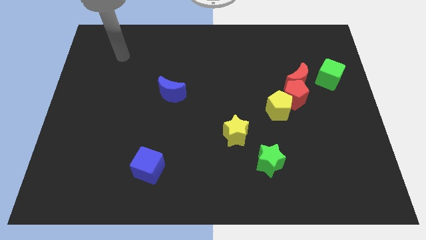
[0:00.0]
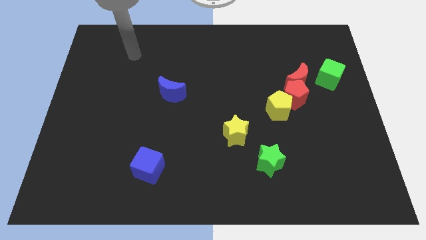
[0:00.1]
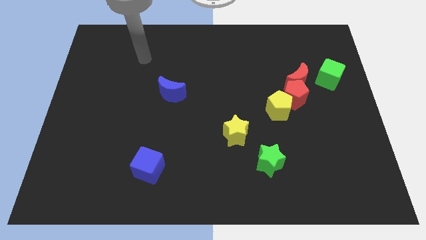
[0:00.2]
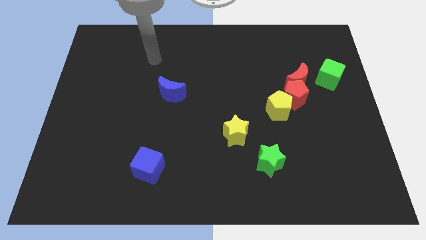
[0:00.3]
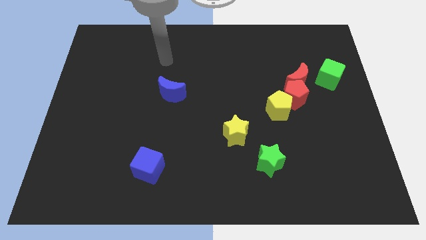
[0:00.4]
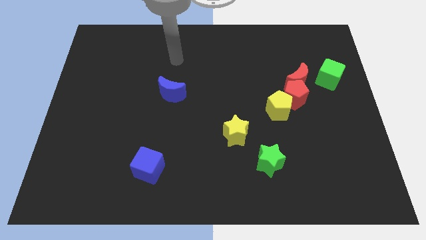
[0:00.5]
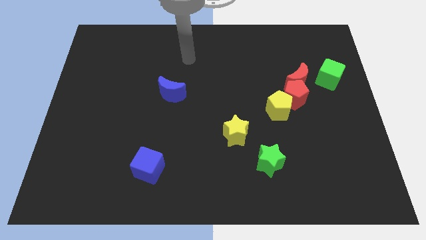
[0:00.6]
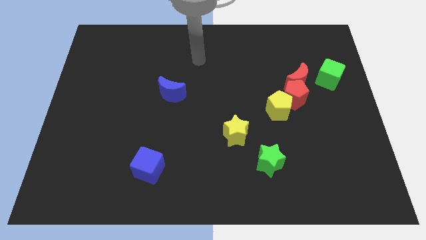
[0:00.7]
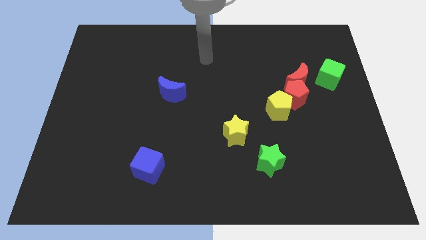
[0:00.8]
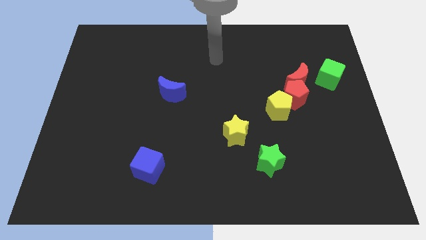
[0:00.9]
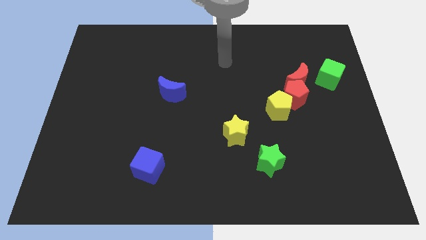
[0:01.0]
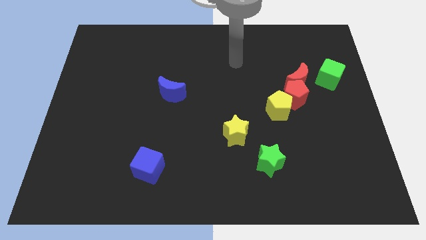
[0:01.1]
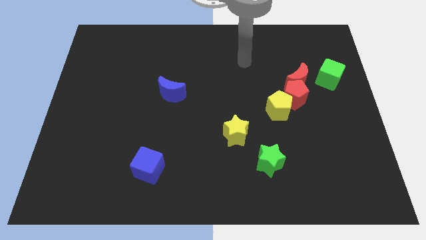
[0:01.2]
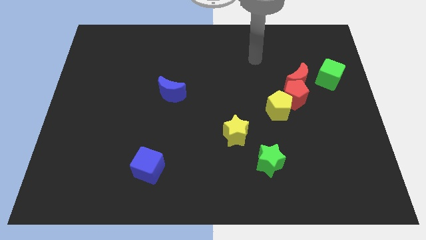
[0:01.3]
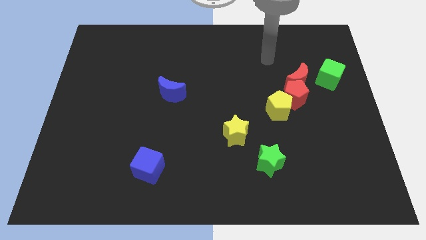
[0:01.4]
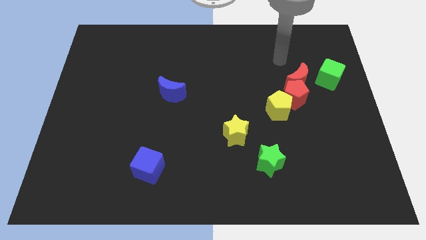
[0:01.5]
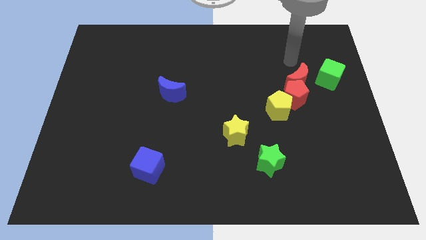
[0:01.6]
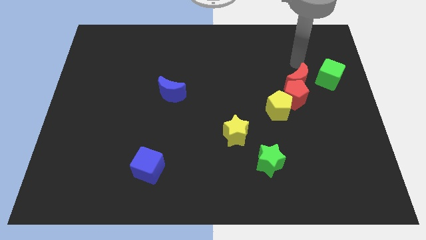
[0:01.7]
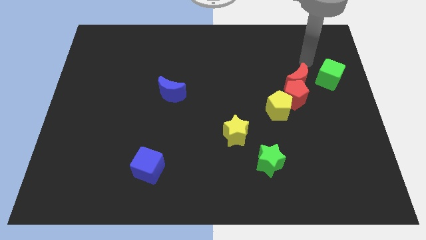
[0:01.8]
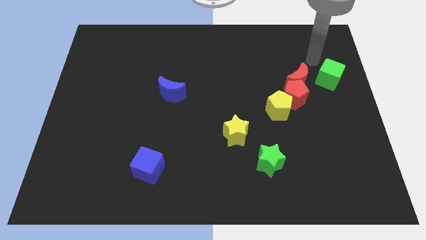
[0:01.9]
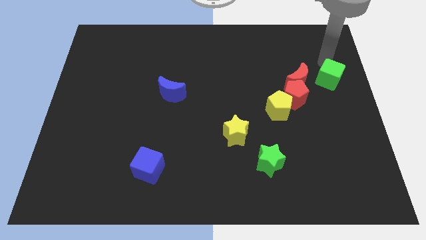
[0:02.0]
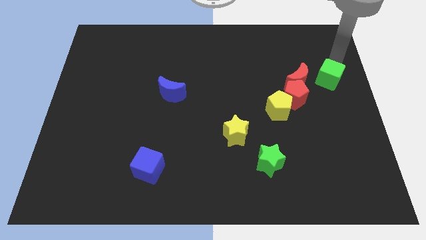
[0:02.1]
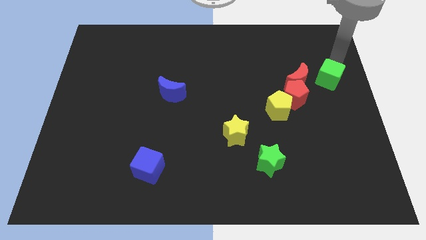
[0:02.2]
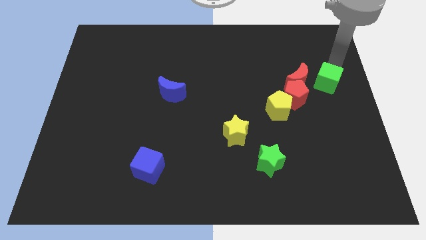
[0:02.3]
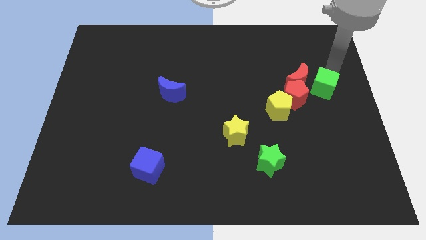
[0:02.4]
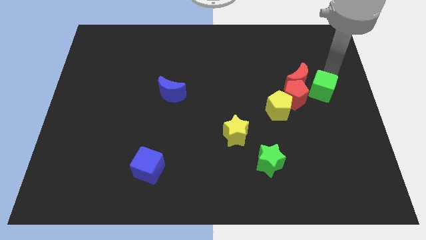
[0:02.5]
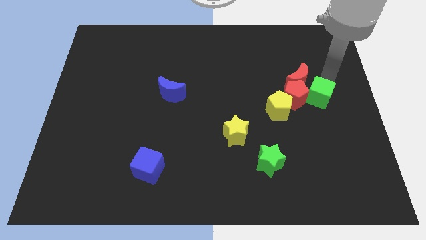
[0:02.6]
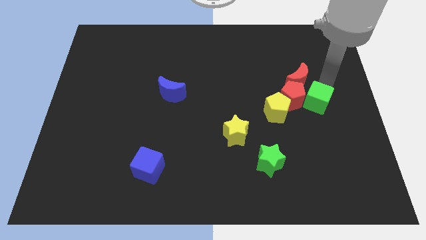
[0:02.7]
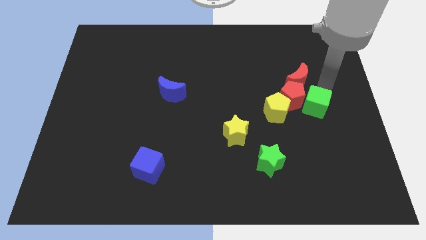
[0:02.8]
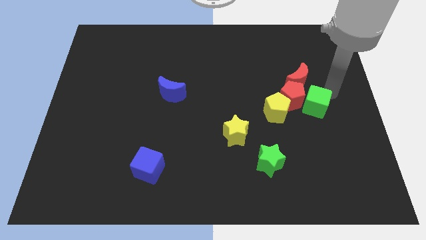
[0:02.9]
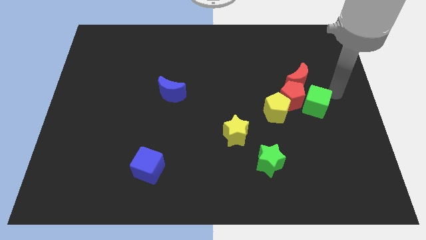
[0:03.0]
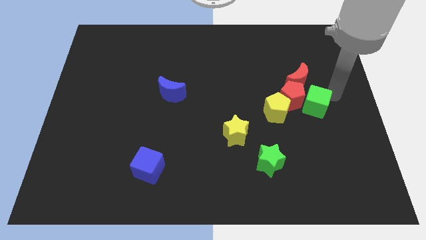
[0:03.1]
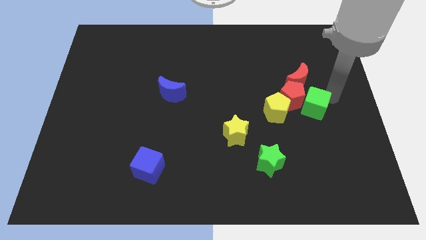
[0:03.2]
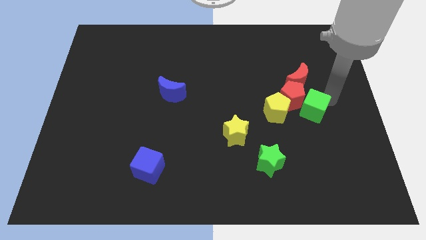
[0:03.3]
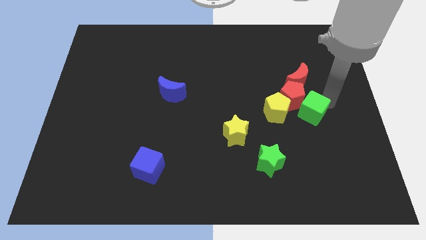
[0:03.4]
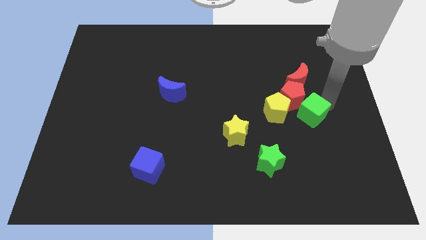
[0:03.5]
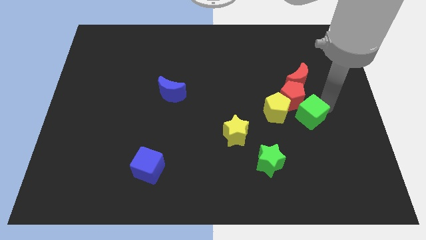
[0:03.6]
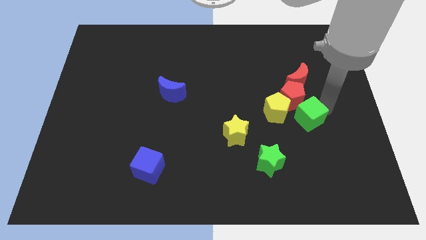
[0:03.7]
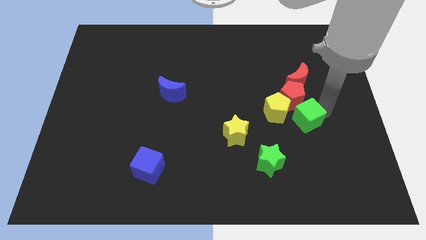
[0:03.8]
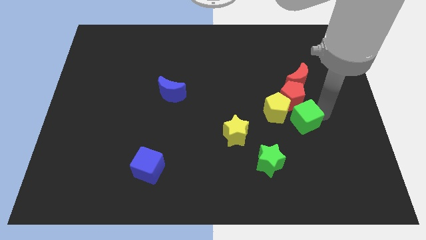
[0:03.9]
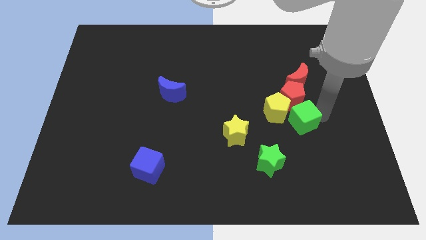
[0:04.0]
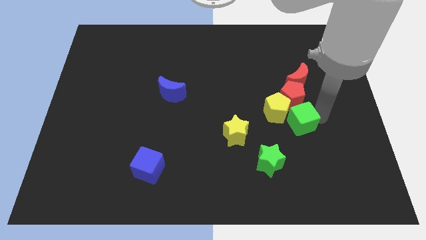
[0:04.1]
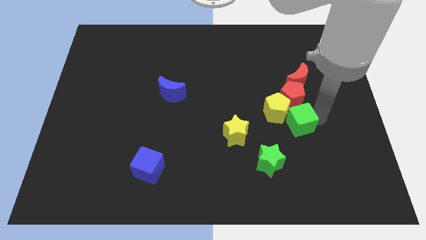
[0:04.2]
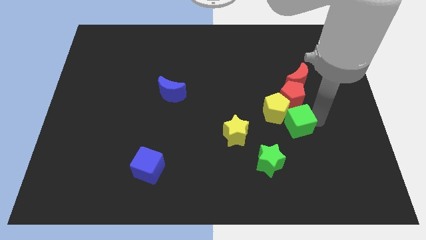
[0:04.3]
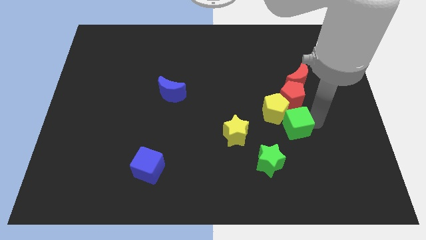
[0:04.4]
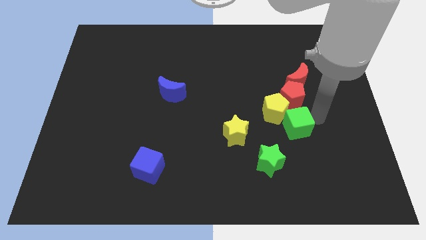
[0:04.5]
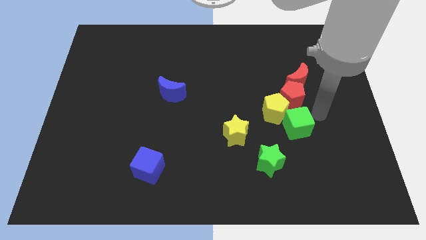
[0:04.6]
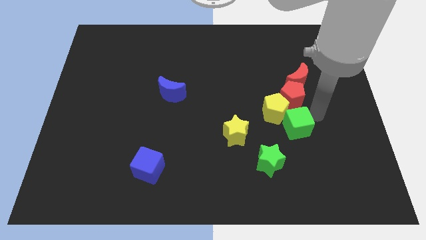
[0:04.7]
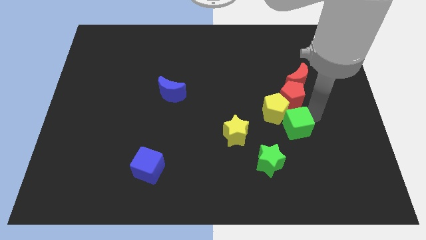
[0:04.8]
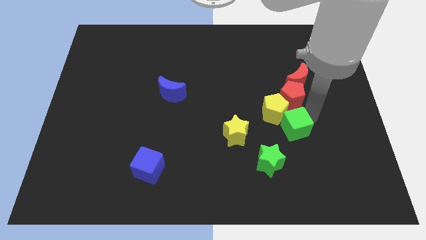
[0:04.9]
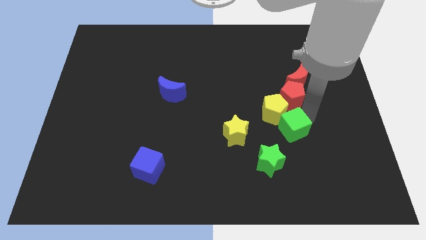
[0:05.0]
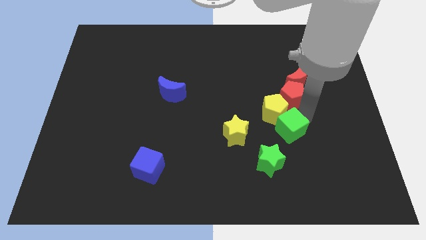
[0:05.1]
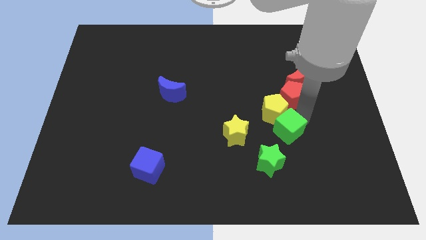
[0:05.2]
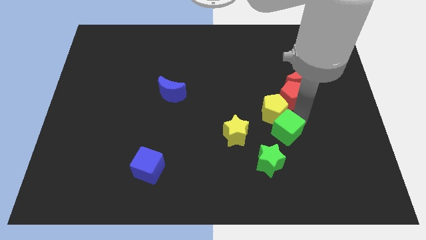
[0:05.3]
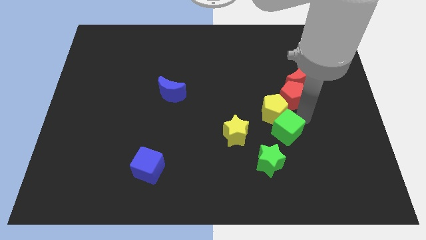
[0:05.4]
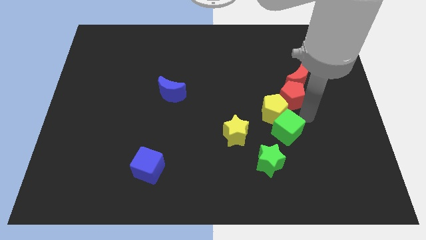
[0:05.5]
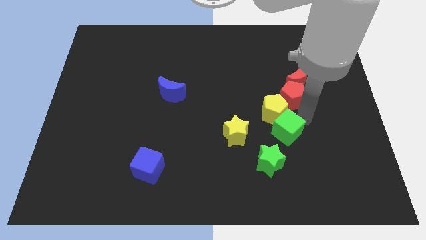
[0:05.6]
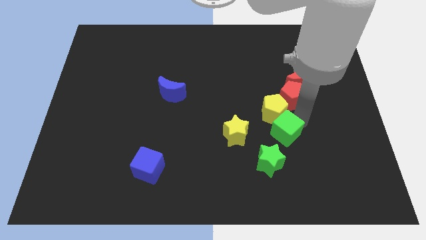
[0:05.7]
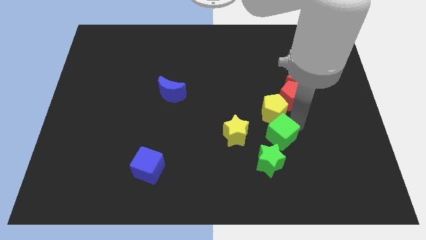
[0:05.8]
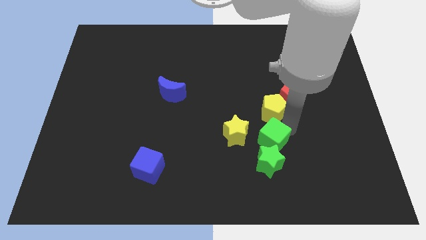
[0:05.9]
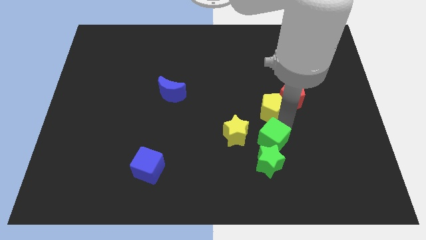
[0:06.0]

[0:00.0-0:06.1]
push the green cube next to the green star

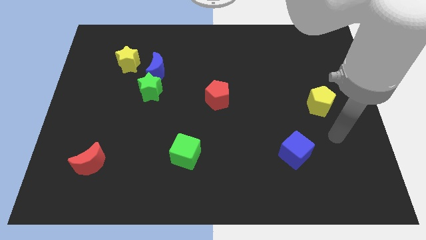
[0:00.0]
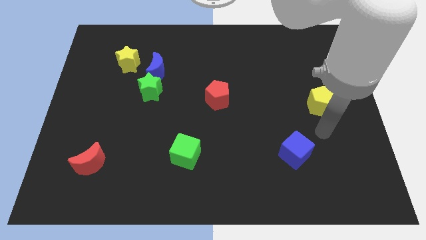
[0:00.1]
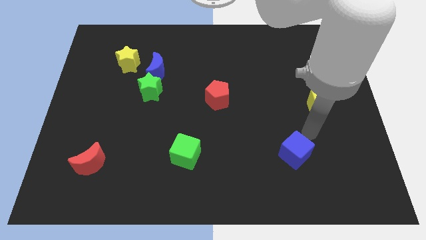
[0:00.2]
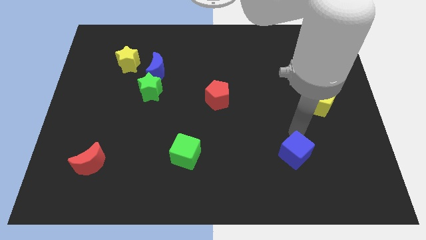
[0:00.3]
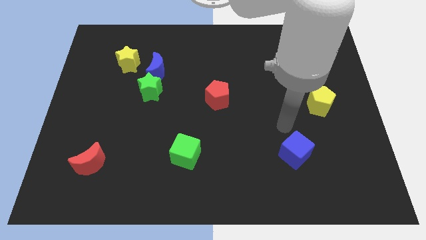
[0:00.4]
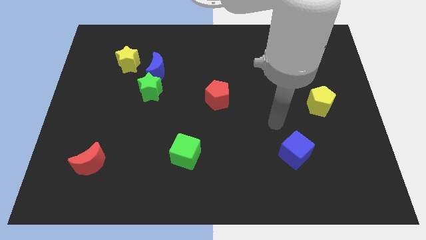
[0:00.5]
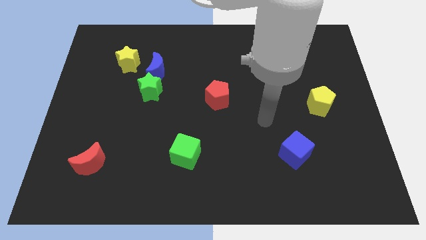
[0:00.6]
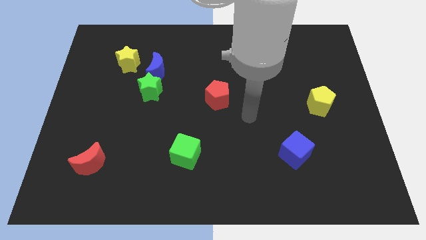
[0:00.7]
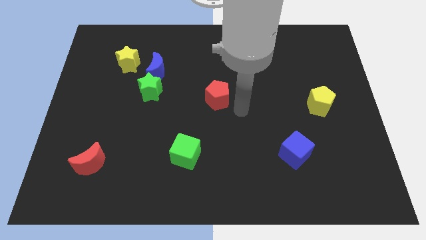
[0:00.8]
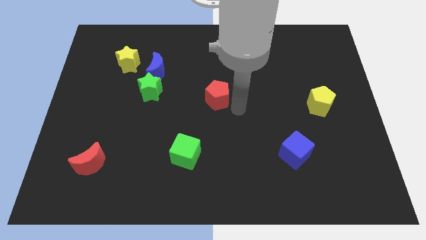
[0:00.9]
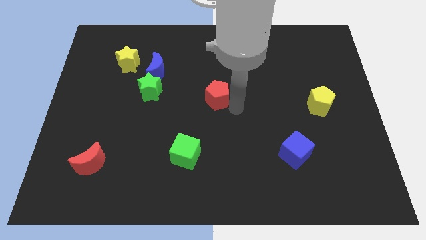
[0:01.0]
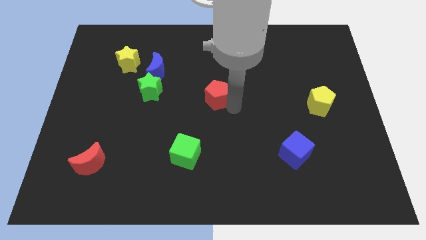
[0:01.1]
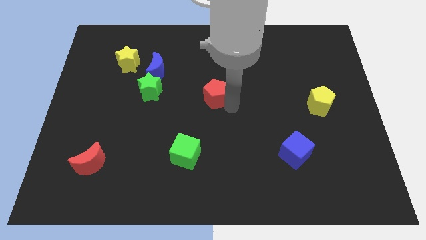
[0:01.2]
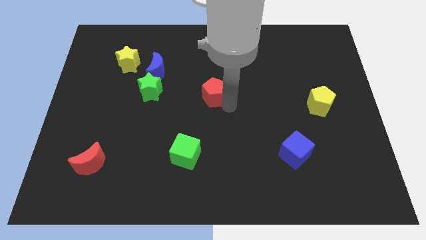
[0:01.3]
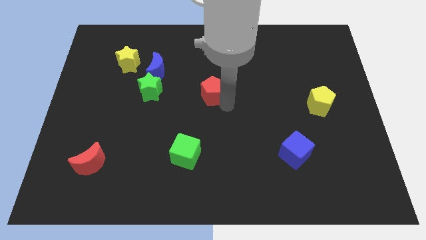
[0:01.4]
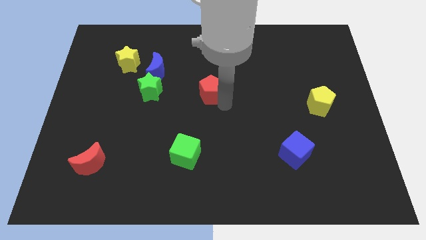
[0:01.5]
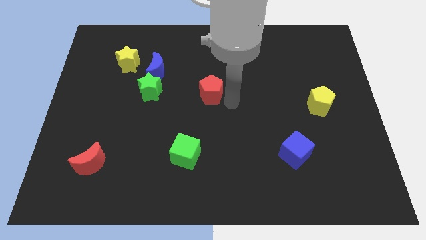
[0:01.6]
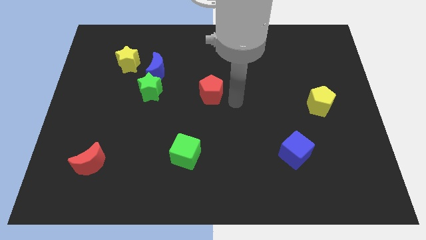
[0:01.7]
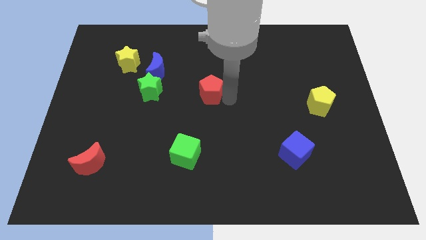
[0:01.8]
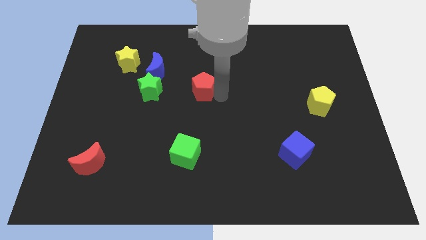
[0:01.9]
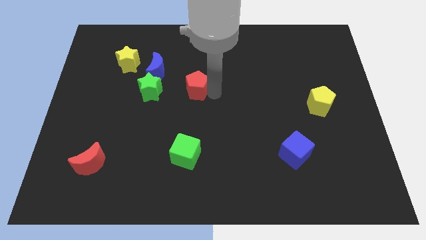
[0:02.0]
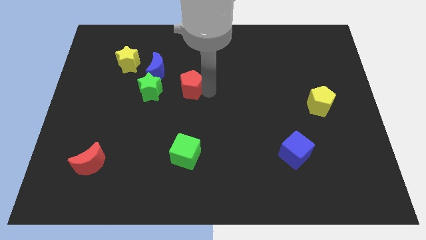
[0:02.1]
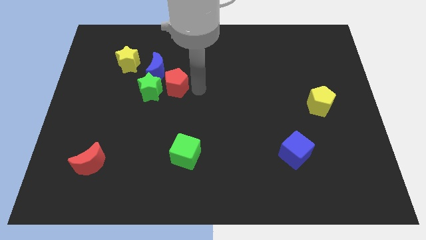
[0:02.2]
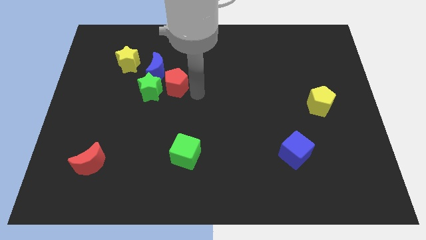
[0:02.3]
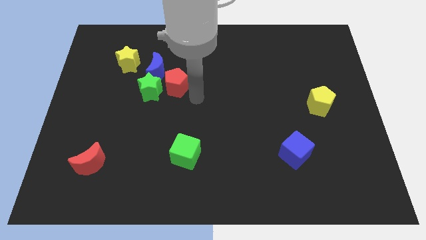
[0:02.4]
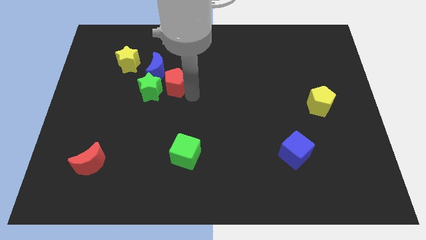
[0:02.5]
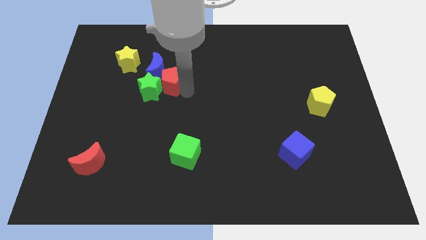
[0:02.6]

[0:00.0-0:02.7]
put the red pentagon next to the blue moon
